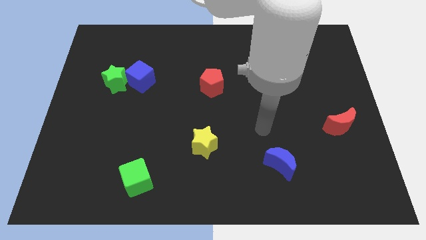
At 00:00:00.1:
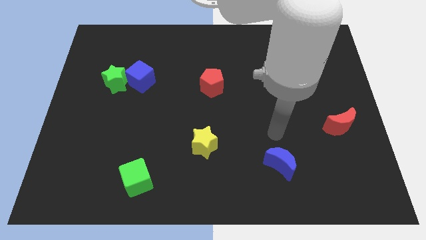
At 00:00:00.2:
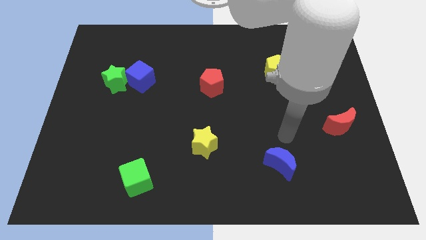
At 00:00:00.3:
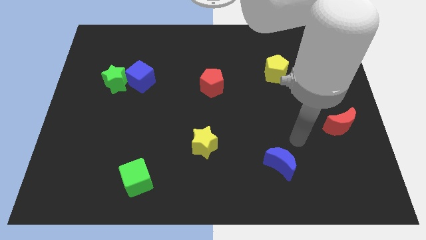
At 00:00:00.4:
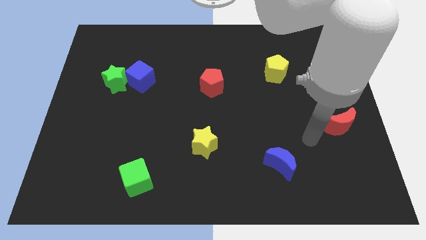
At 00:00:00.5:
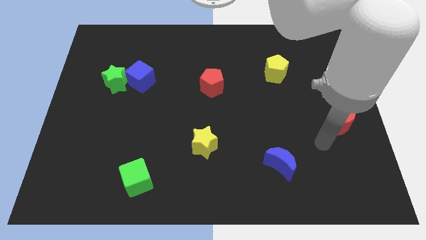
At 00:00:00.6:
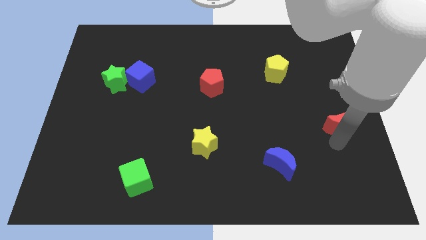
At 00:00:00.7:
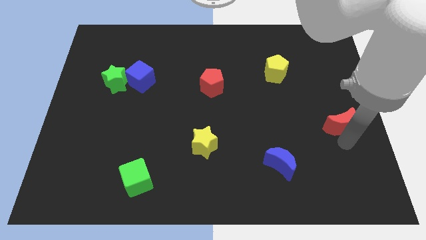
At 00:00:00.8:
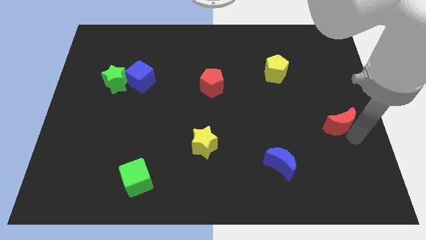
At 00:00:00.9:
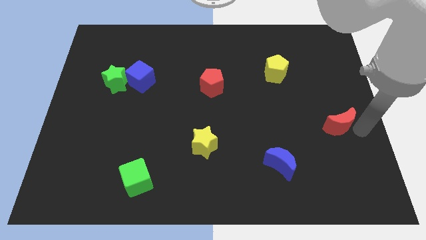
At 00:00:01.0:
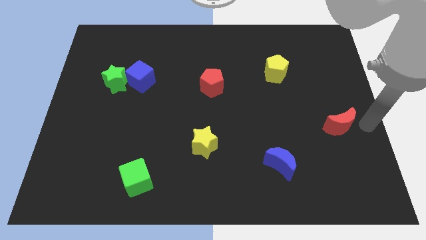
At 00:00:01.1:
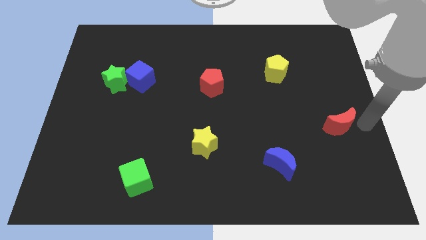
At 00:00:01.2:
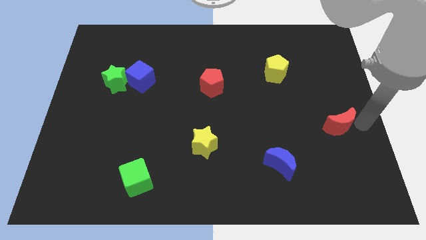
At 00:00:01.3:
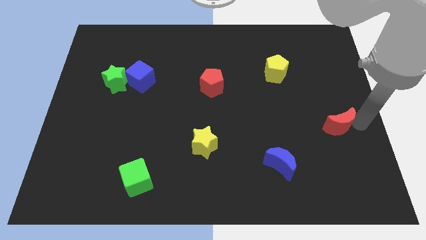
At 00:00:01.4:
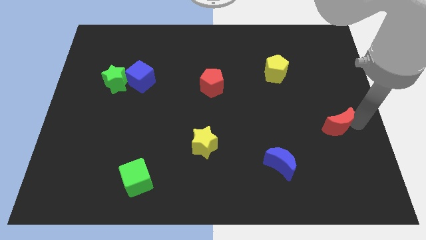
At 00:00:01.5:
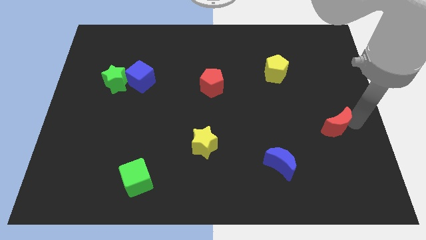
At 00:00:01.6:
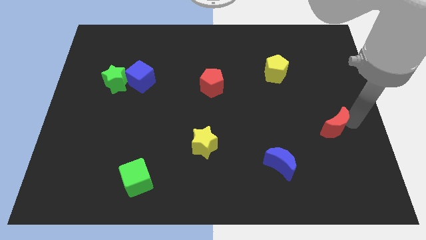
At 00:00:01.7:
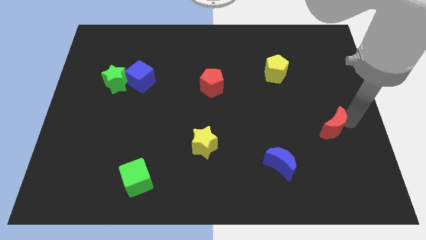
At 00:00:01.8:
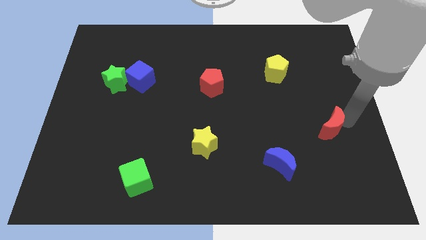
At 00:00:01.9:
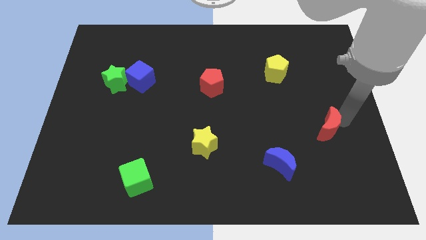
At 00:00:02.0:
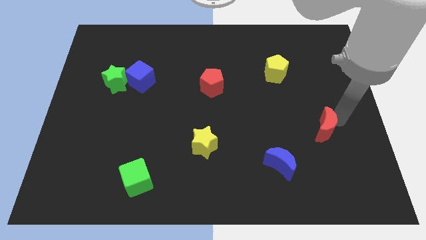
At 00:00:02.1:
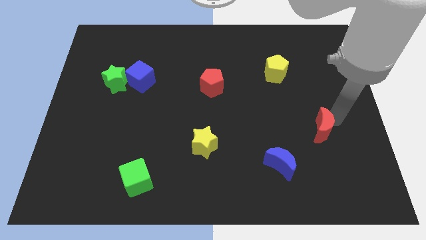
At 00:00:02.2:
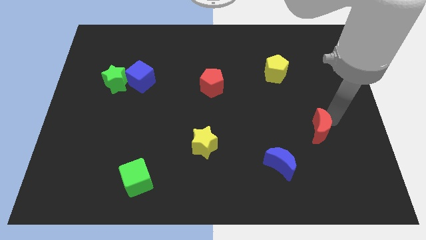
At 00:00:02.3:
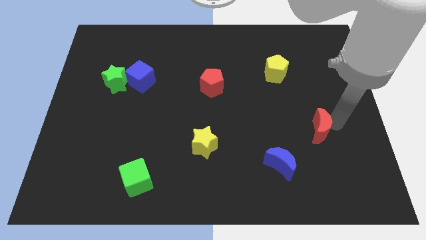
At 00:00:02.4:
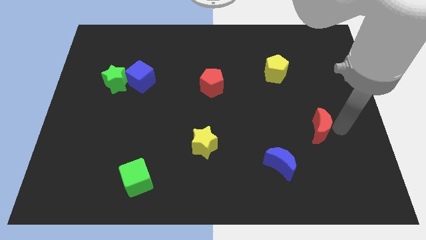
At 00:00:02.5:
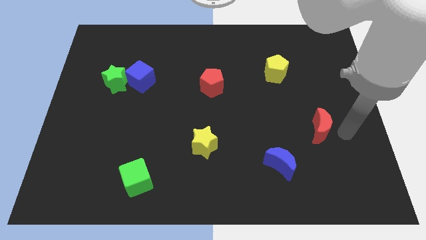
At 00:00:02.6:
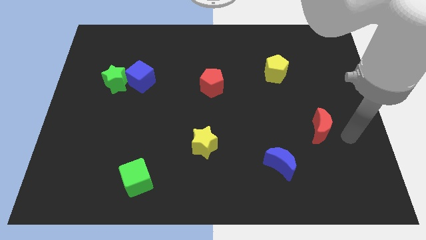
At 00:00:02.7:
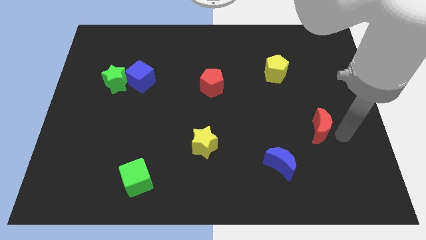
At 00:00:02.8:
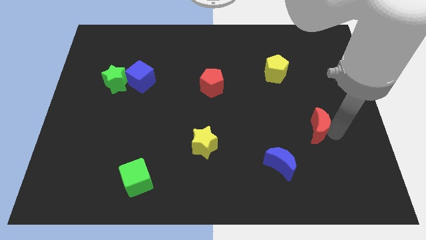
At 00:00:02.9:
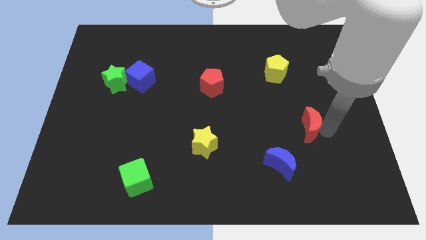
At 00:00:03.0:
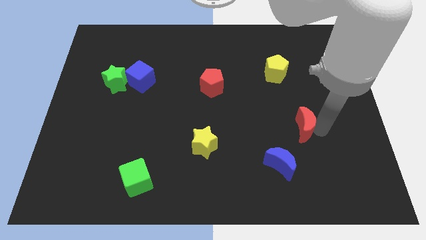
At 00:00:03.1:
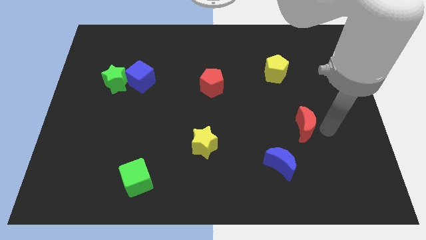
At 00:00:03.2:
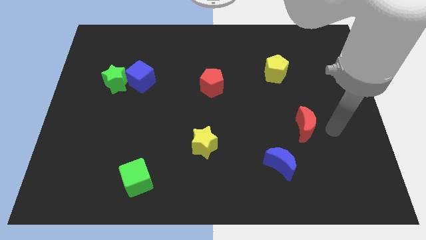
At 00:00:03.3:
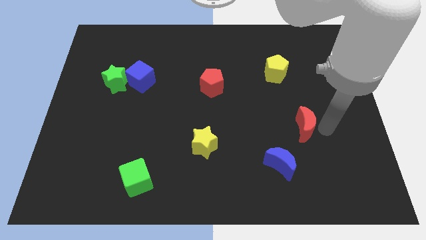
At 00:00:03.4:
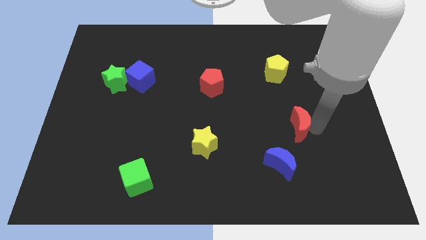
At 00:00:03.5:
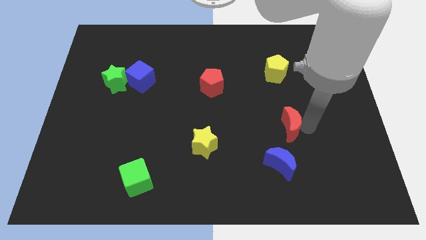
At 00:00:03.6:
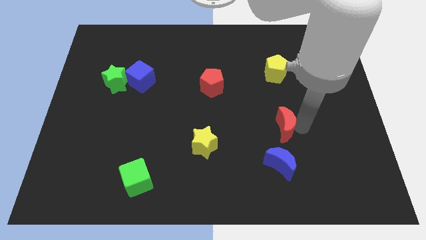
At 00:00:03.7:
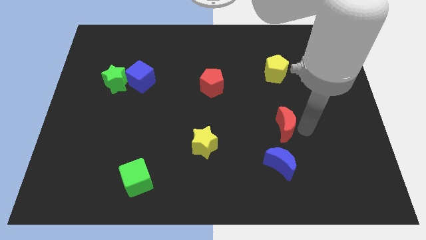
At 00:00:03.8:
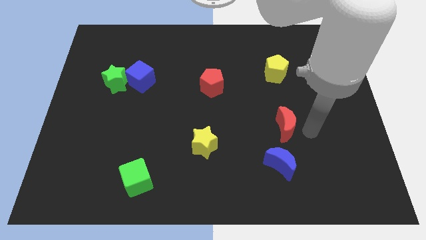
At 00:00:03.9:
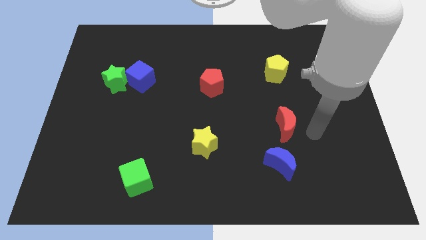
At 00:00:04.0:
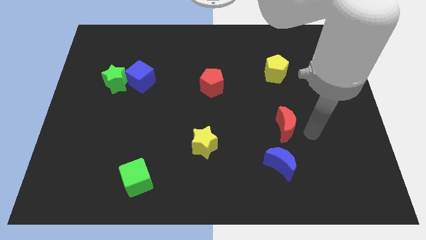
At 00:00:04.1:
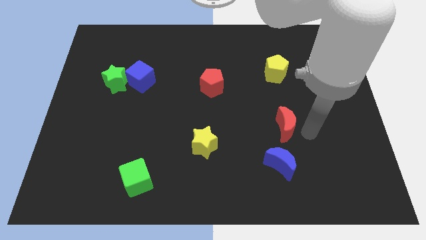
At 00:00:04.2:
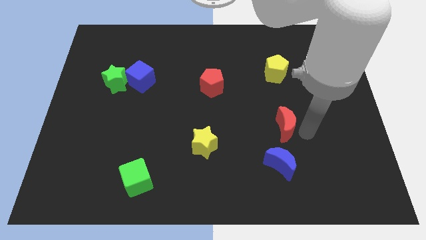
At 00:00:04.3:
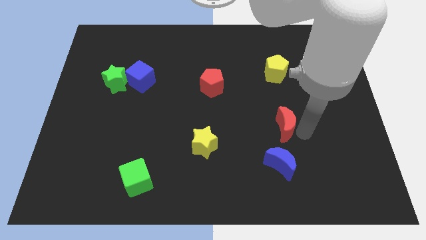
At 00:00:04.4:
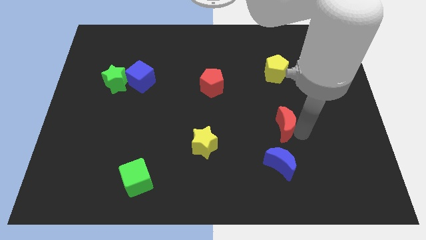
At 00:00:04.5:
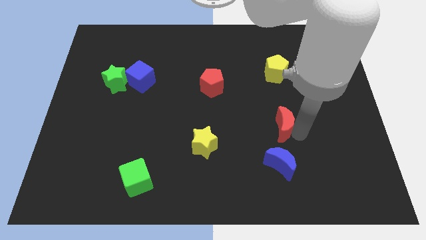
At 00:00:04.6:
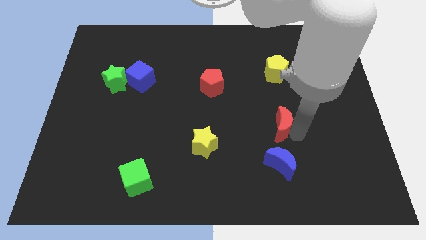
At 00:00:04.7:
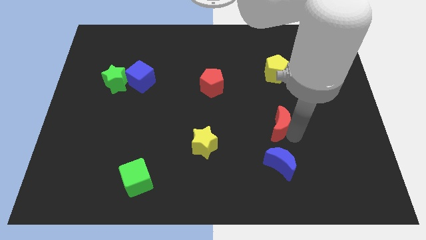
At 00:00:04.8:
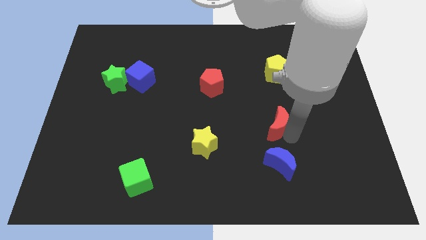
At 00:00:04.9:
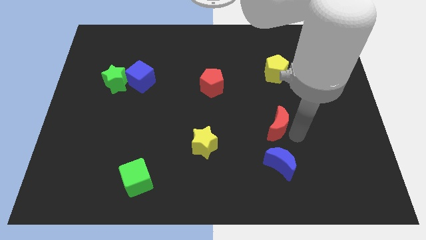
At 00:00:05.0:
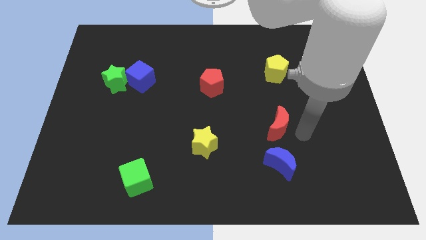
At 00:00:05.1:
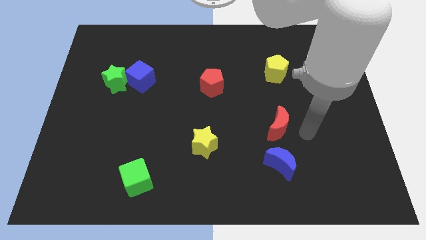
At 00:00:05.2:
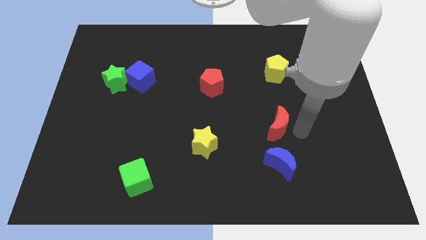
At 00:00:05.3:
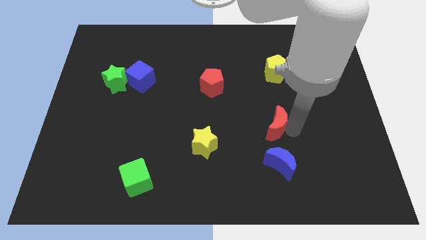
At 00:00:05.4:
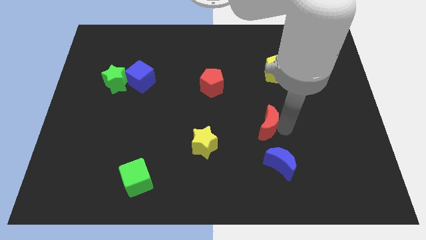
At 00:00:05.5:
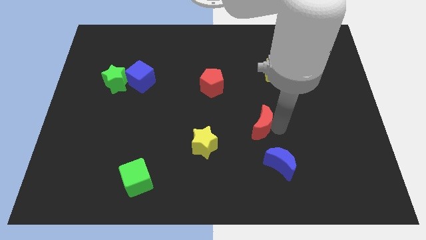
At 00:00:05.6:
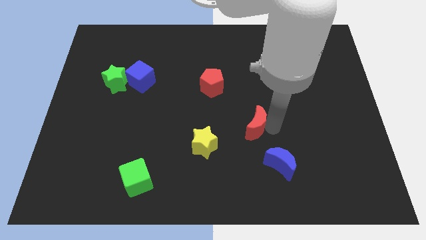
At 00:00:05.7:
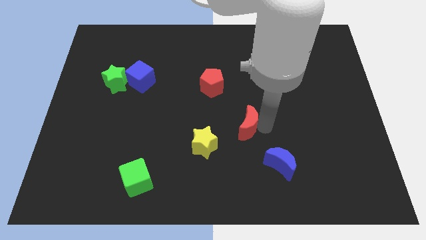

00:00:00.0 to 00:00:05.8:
put the red moon to the top right side of the yellow star

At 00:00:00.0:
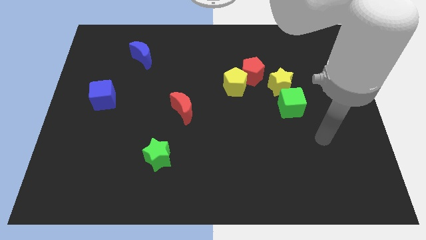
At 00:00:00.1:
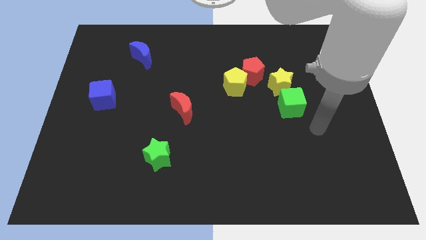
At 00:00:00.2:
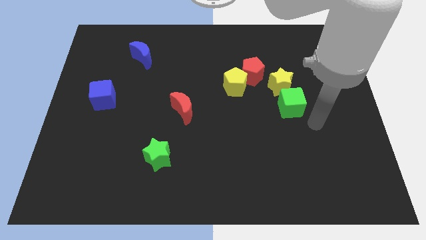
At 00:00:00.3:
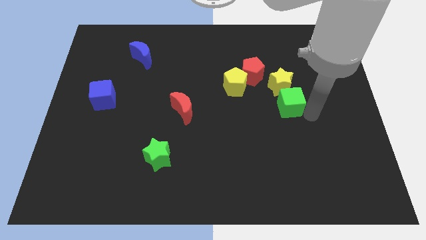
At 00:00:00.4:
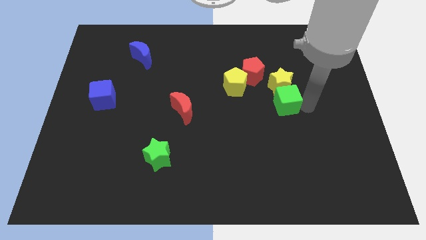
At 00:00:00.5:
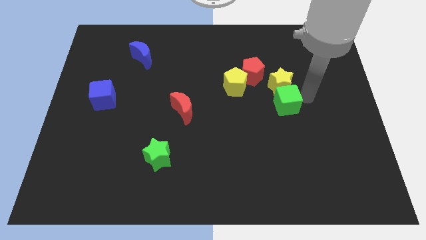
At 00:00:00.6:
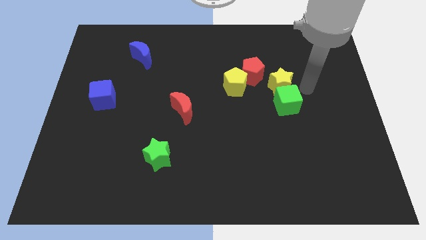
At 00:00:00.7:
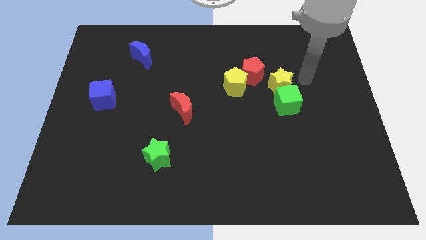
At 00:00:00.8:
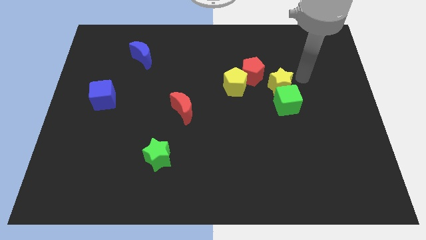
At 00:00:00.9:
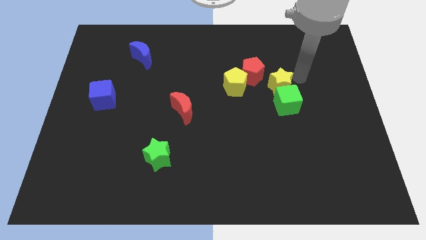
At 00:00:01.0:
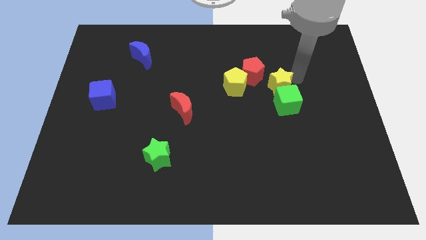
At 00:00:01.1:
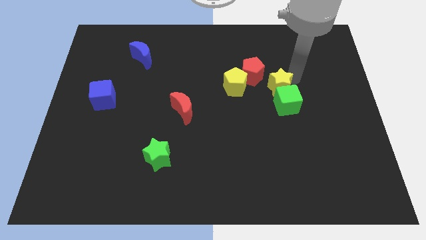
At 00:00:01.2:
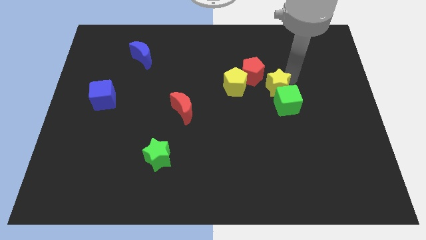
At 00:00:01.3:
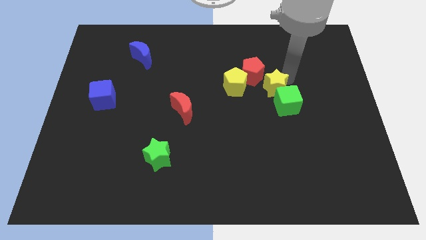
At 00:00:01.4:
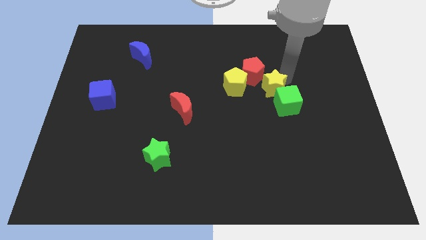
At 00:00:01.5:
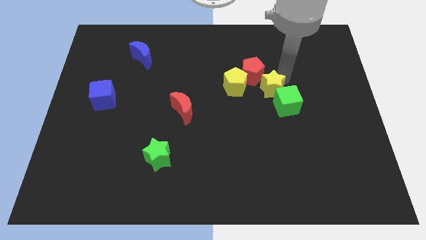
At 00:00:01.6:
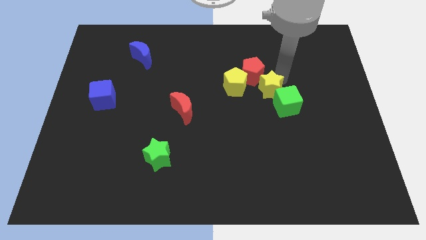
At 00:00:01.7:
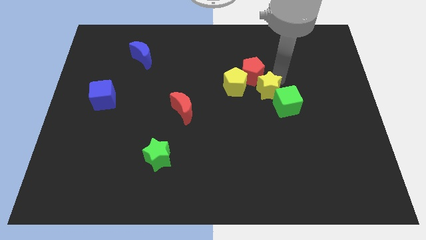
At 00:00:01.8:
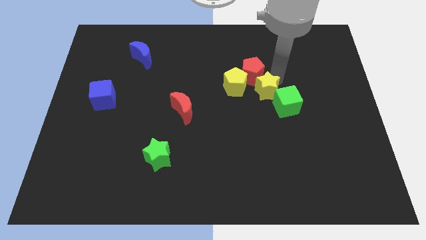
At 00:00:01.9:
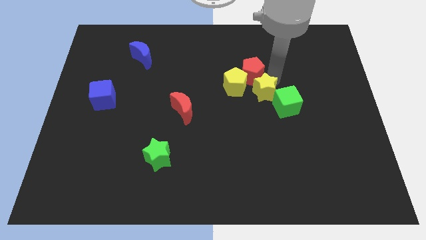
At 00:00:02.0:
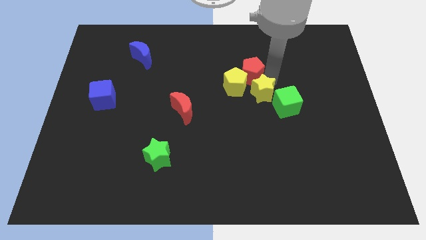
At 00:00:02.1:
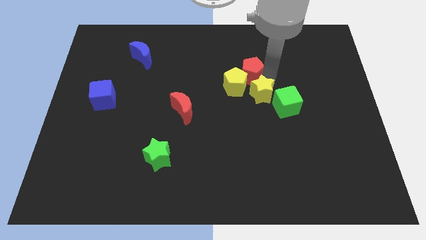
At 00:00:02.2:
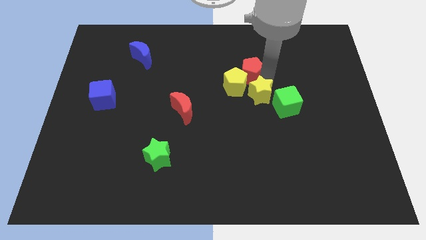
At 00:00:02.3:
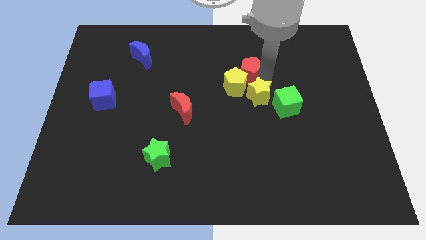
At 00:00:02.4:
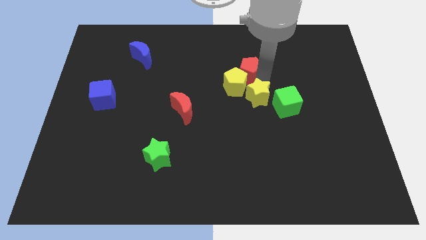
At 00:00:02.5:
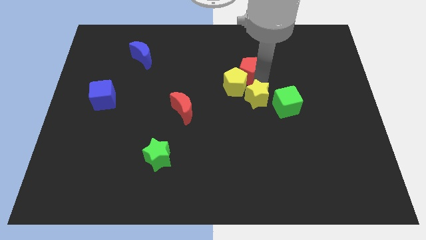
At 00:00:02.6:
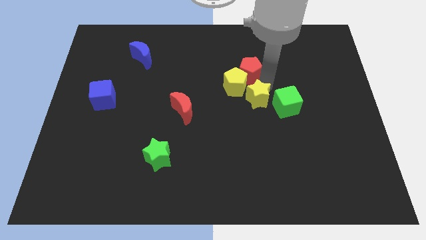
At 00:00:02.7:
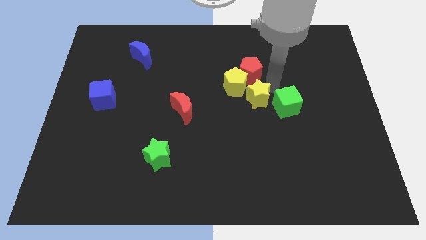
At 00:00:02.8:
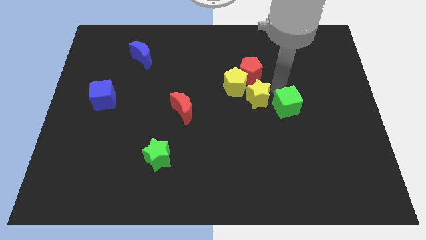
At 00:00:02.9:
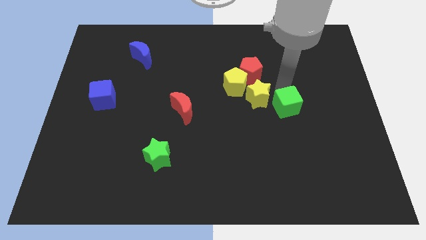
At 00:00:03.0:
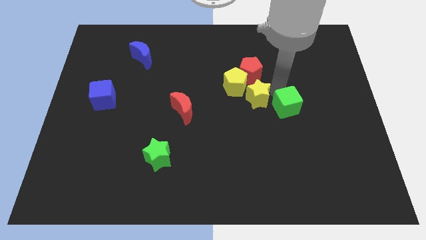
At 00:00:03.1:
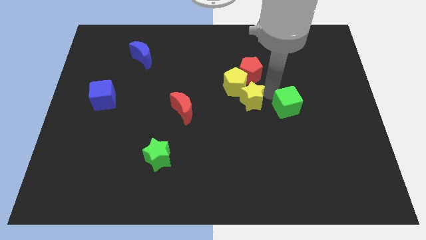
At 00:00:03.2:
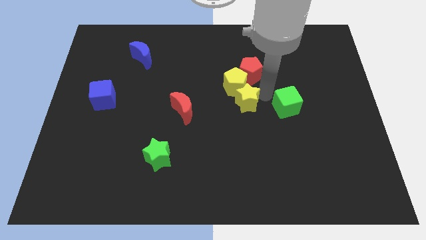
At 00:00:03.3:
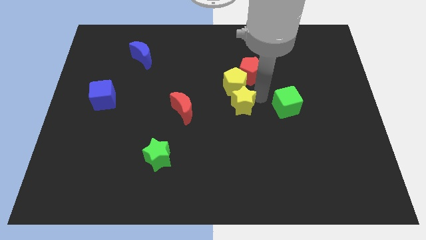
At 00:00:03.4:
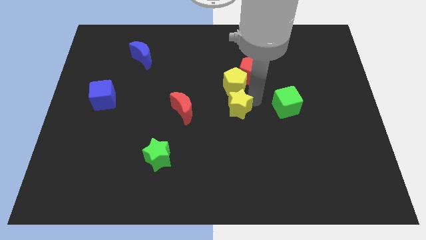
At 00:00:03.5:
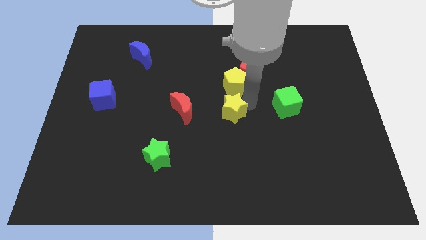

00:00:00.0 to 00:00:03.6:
push the yellow star diagonally down and to the left of the yellow pentagon
